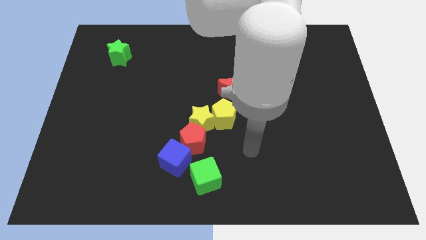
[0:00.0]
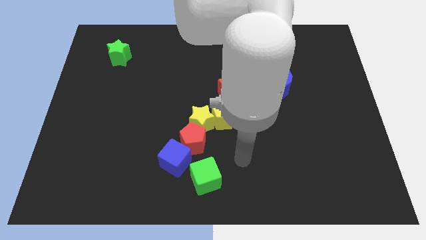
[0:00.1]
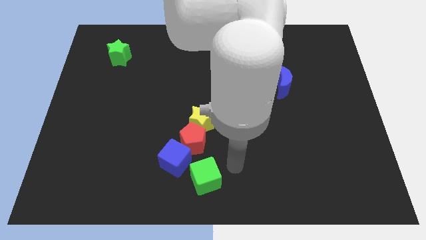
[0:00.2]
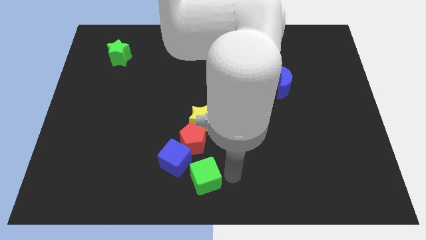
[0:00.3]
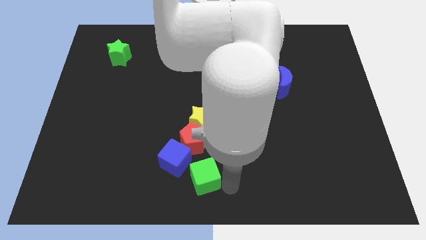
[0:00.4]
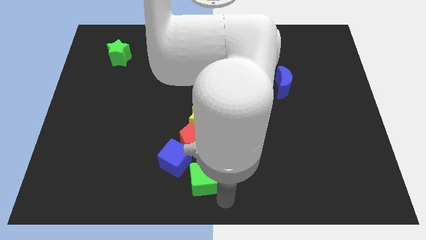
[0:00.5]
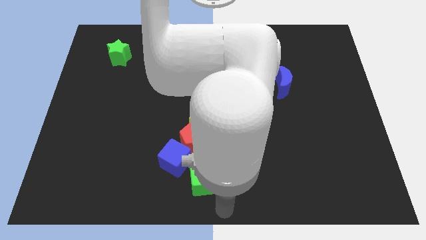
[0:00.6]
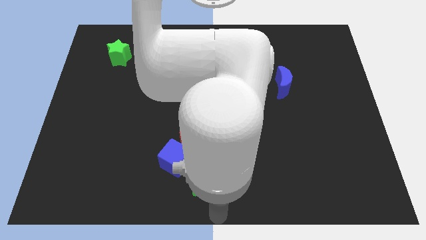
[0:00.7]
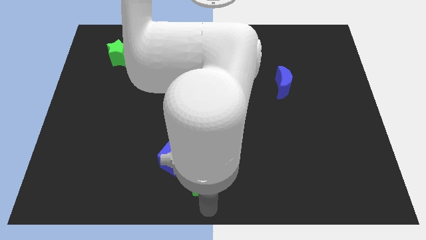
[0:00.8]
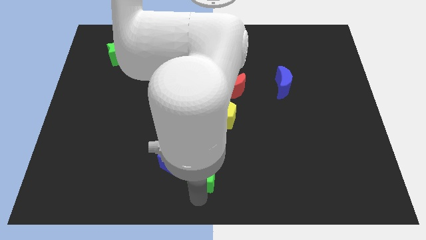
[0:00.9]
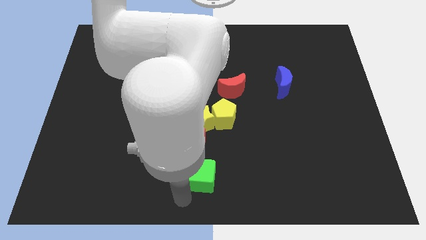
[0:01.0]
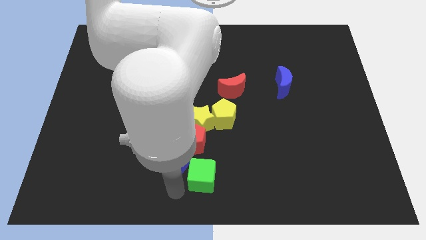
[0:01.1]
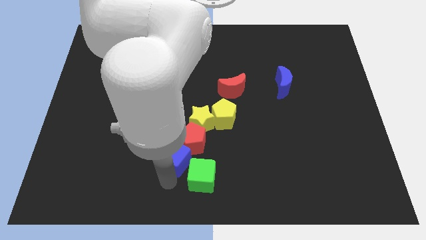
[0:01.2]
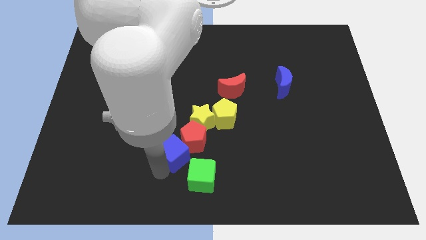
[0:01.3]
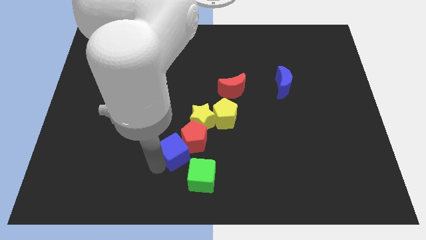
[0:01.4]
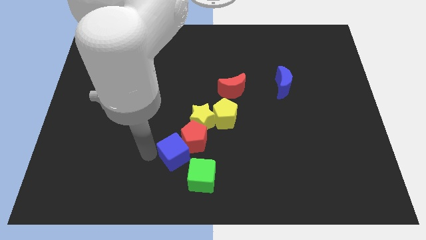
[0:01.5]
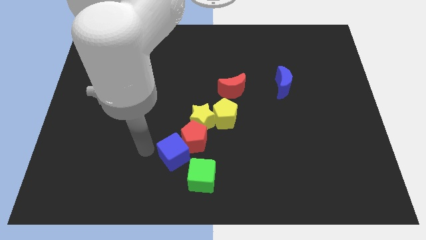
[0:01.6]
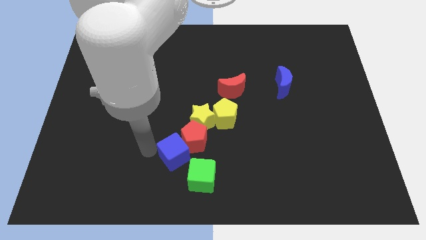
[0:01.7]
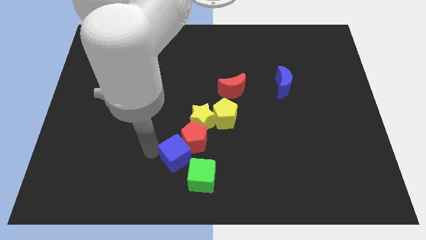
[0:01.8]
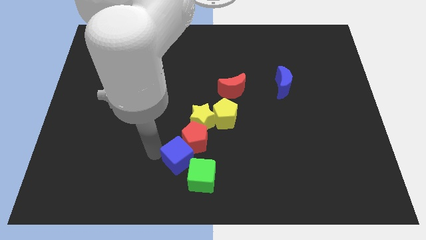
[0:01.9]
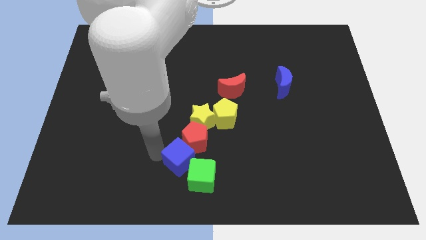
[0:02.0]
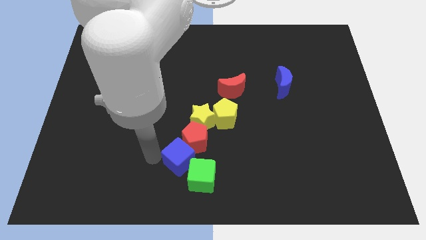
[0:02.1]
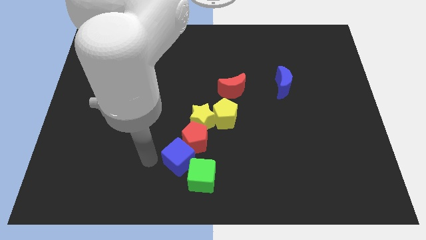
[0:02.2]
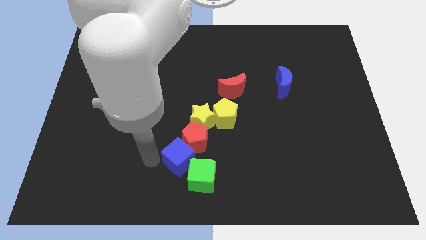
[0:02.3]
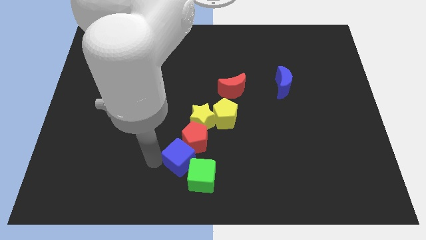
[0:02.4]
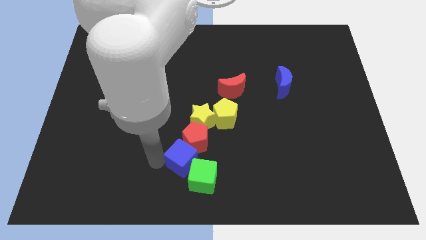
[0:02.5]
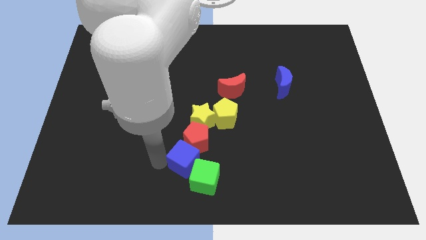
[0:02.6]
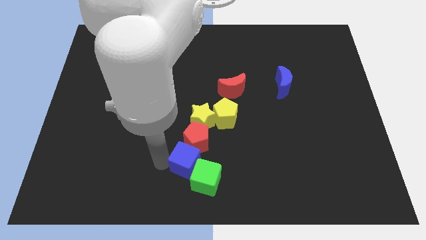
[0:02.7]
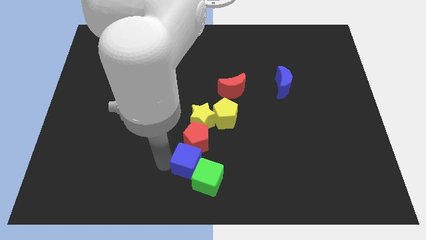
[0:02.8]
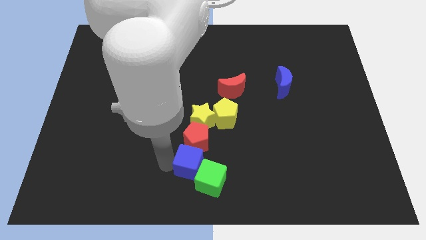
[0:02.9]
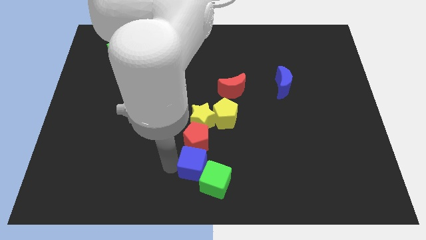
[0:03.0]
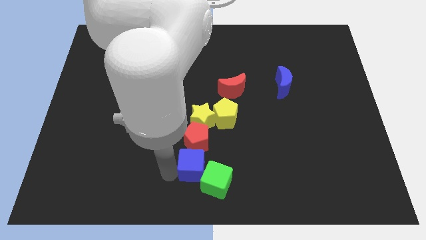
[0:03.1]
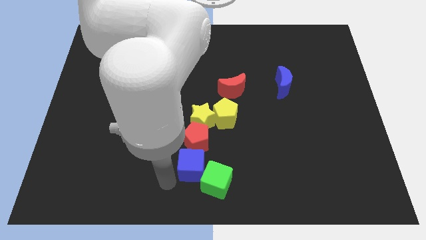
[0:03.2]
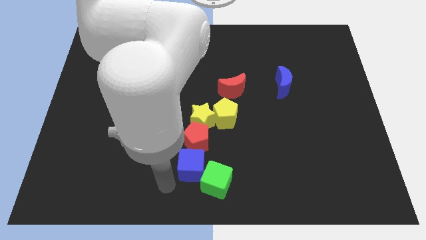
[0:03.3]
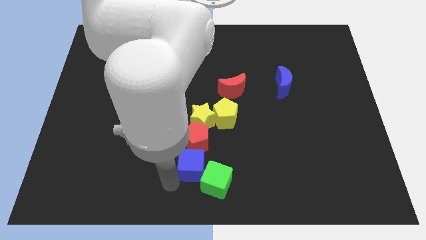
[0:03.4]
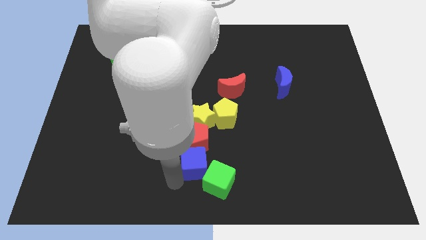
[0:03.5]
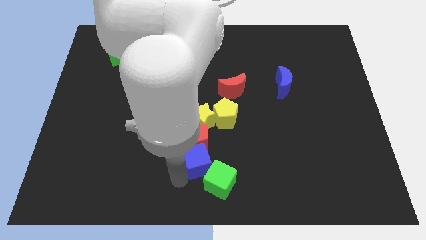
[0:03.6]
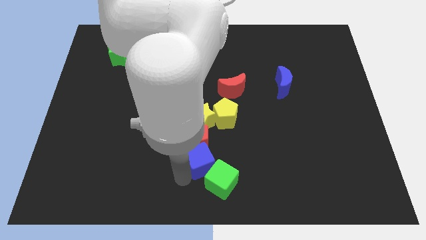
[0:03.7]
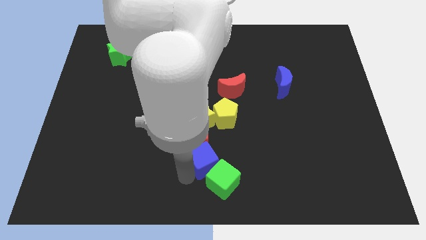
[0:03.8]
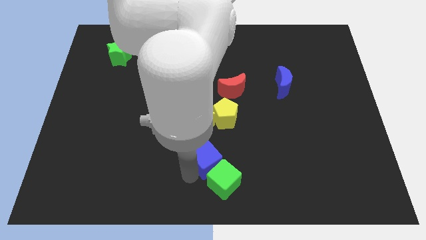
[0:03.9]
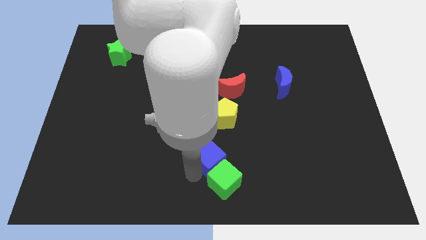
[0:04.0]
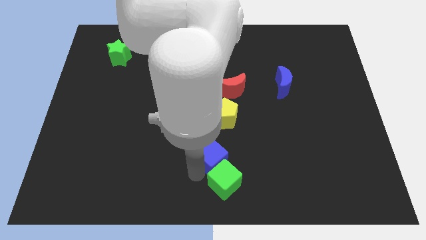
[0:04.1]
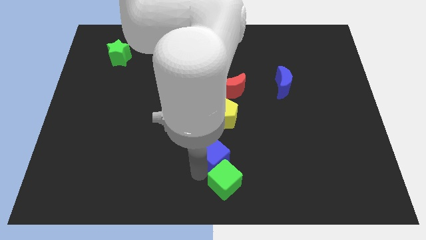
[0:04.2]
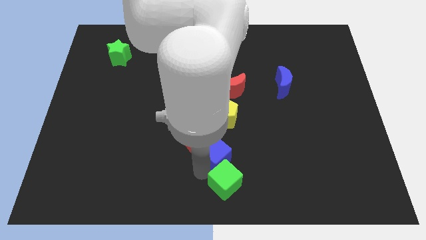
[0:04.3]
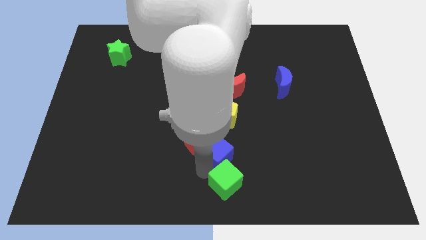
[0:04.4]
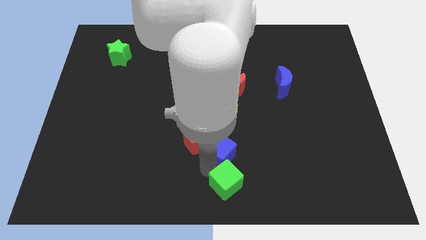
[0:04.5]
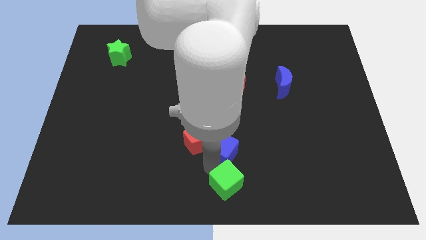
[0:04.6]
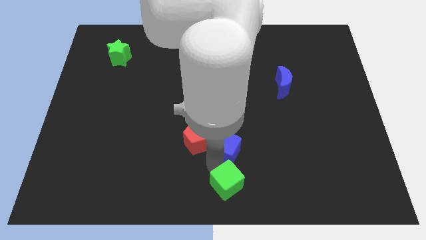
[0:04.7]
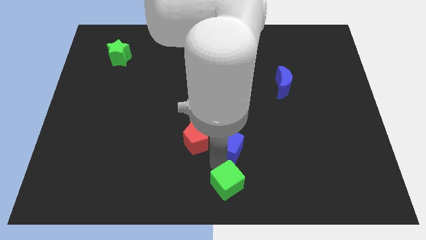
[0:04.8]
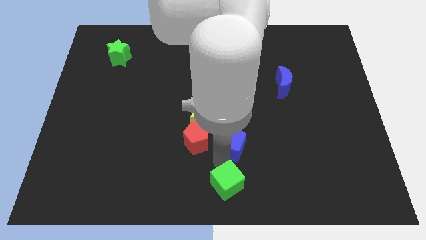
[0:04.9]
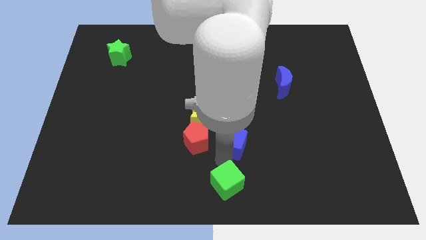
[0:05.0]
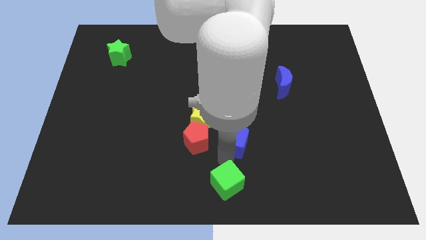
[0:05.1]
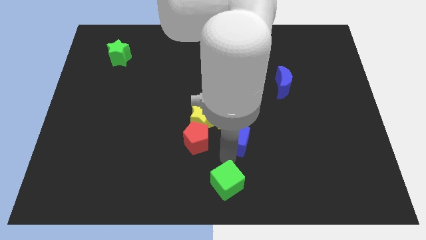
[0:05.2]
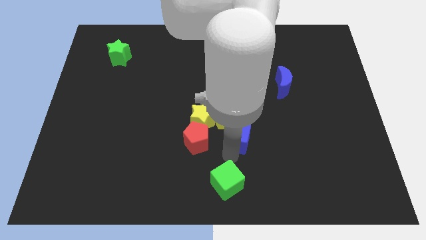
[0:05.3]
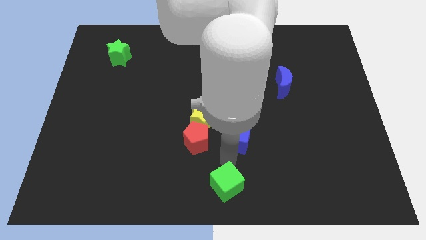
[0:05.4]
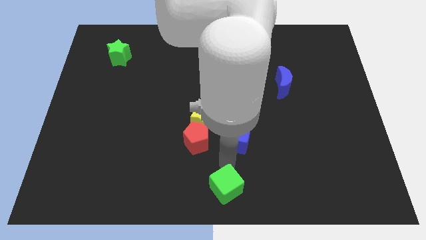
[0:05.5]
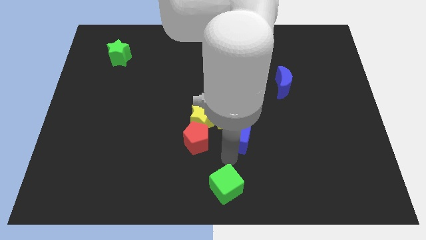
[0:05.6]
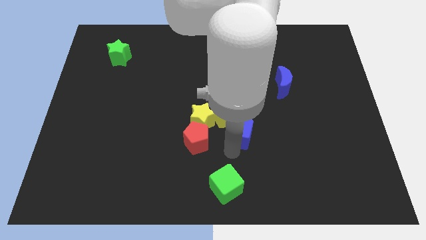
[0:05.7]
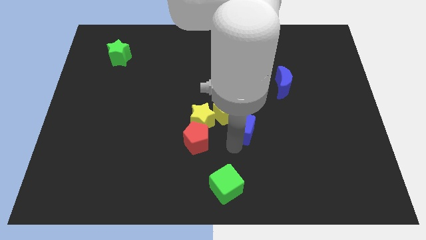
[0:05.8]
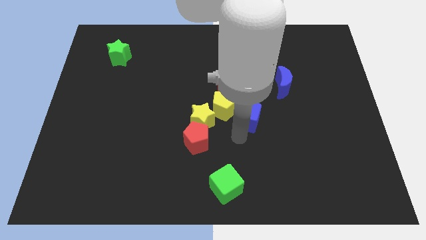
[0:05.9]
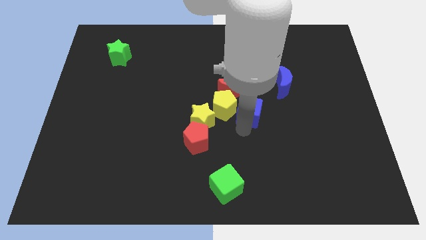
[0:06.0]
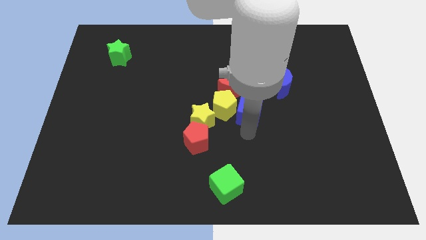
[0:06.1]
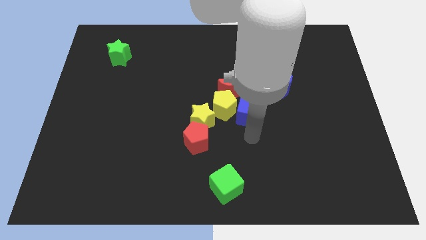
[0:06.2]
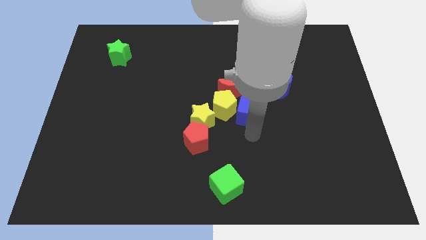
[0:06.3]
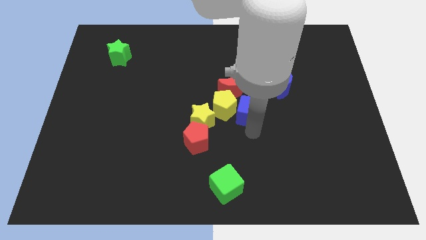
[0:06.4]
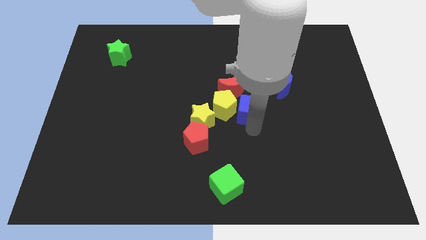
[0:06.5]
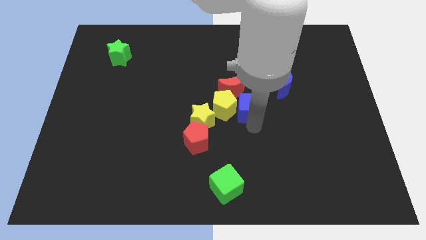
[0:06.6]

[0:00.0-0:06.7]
move the blue cube diagonally up and to the right of the yellow pentagon
